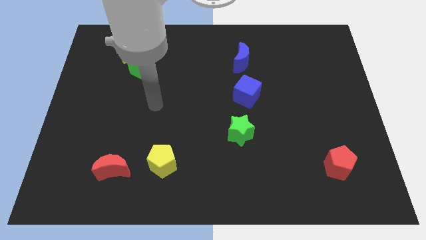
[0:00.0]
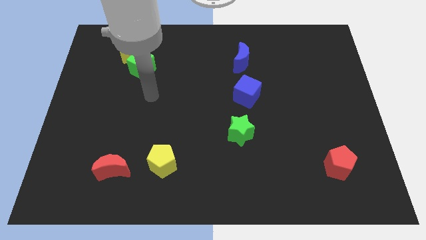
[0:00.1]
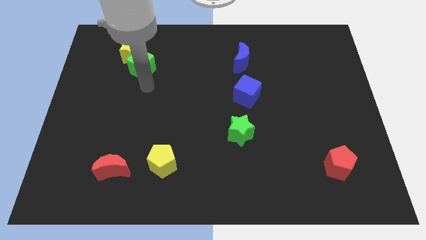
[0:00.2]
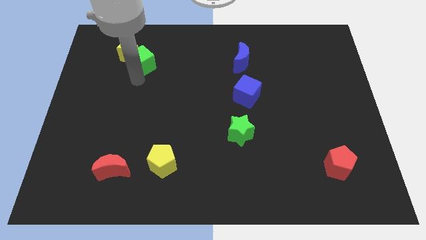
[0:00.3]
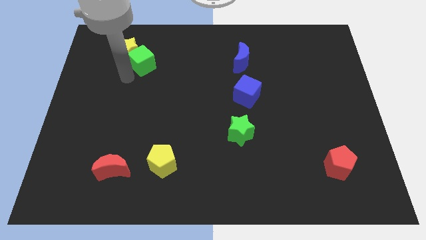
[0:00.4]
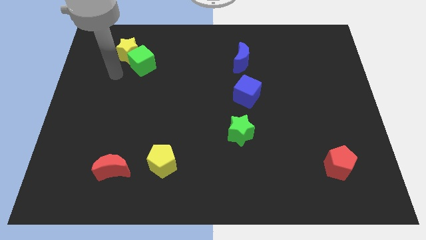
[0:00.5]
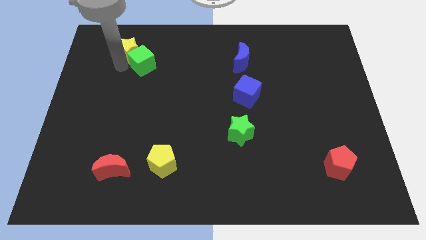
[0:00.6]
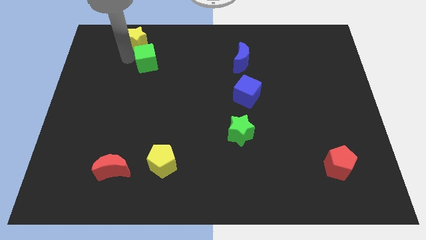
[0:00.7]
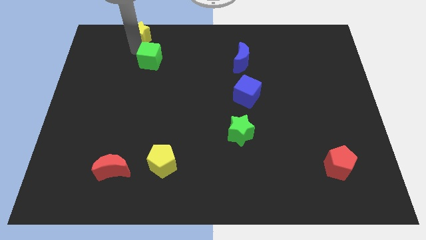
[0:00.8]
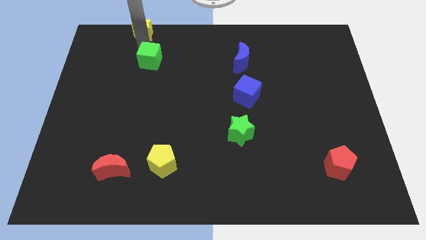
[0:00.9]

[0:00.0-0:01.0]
move the green cube away from the yellow star

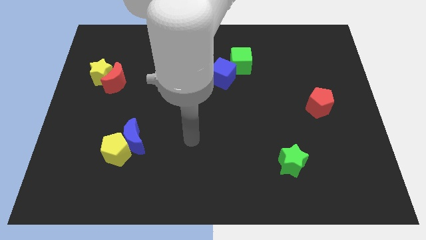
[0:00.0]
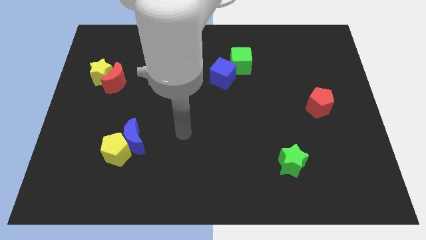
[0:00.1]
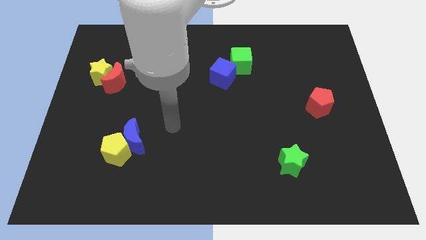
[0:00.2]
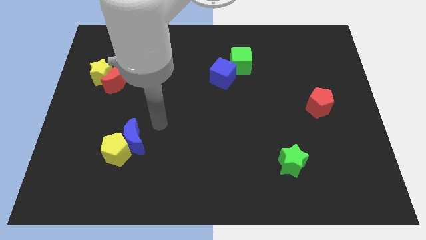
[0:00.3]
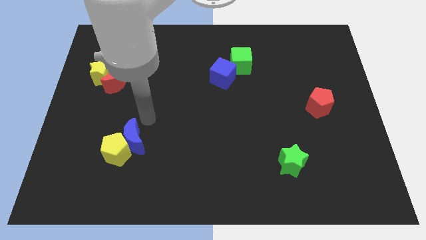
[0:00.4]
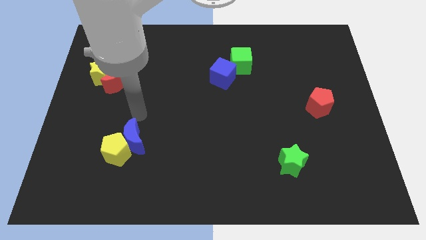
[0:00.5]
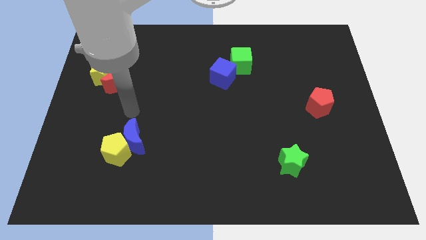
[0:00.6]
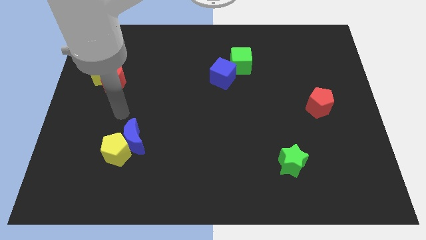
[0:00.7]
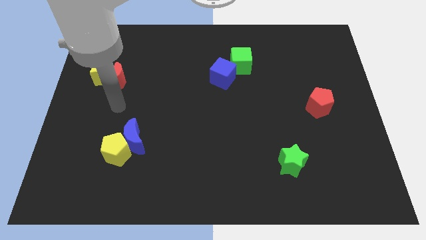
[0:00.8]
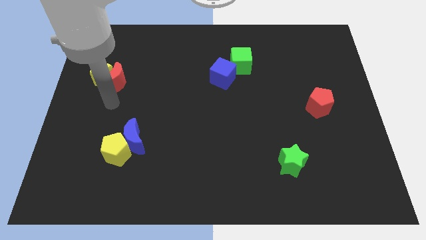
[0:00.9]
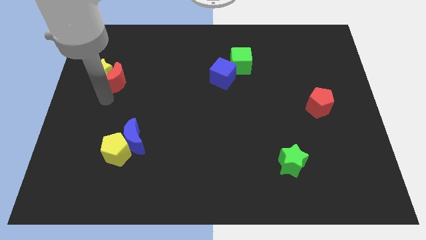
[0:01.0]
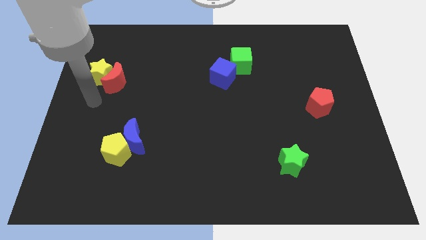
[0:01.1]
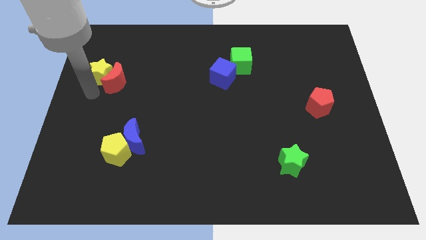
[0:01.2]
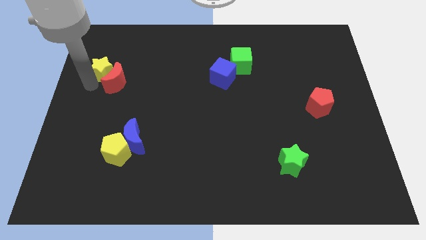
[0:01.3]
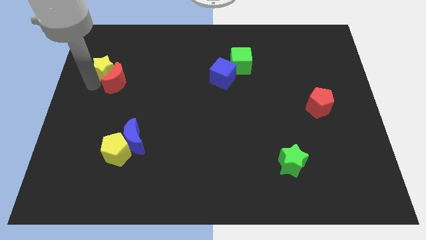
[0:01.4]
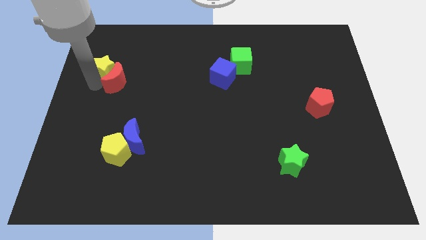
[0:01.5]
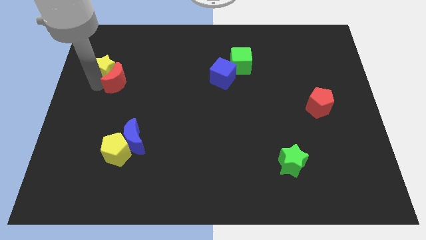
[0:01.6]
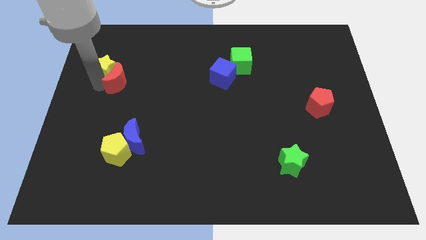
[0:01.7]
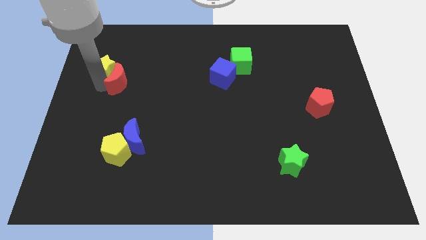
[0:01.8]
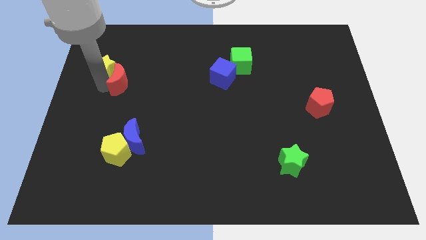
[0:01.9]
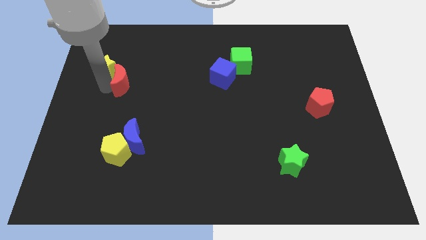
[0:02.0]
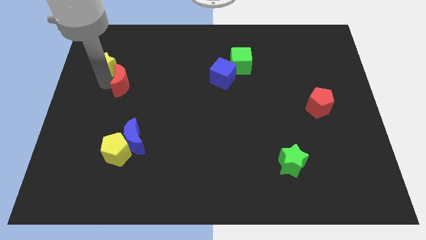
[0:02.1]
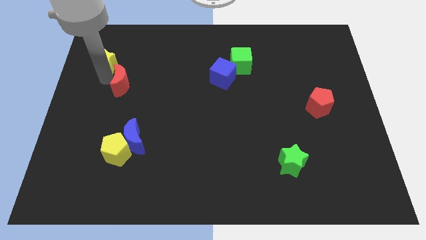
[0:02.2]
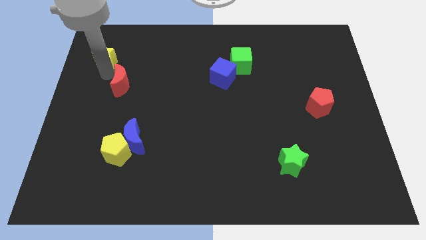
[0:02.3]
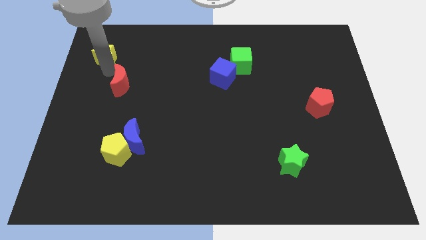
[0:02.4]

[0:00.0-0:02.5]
separate the red moon from the yellow star

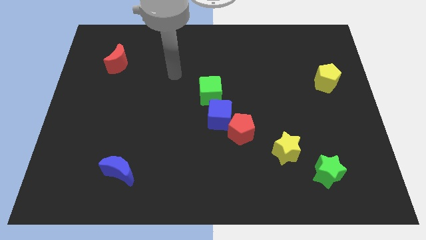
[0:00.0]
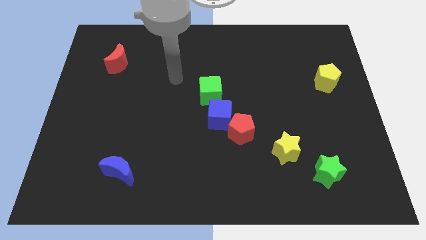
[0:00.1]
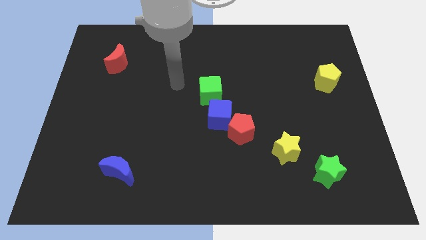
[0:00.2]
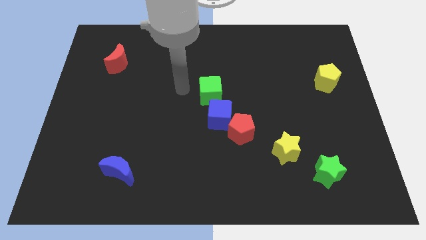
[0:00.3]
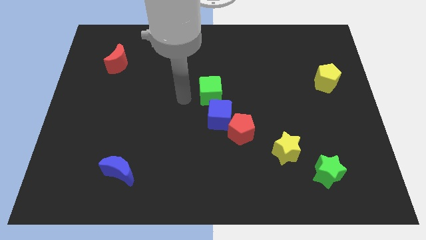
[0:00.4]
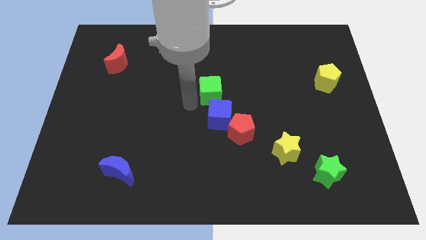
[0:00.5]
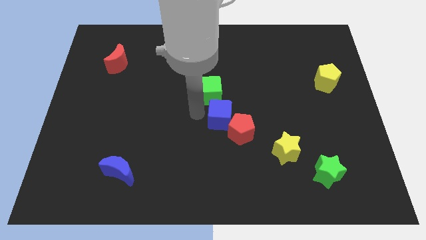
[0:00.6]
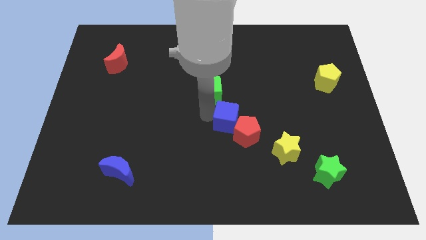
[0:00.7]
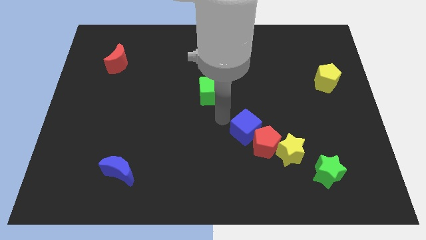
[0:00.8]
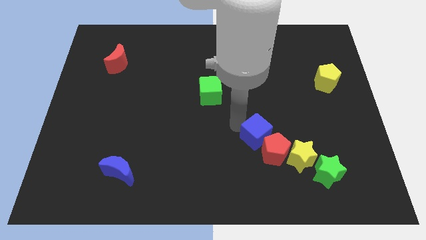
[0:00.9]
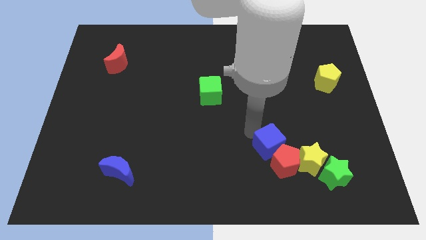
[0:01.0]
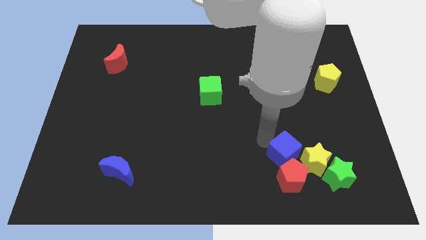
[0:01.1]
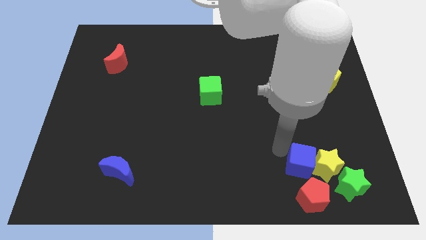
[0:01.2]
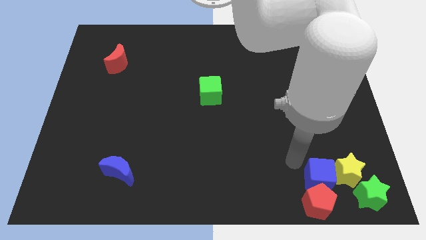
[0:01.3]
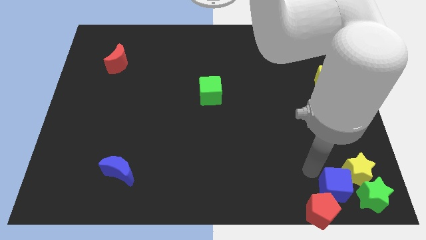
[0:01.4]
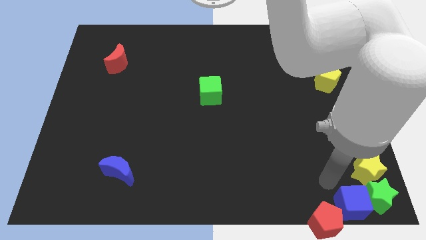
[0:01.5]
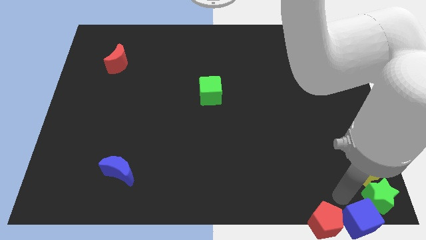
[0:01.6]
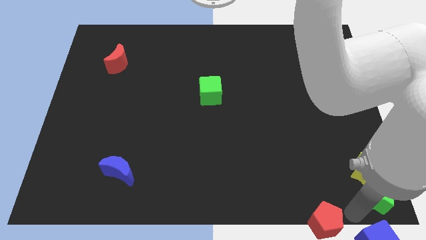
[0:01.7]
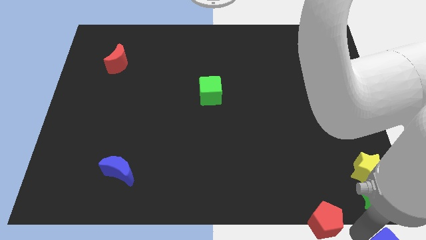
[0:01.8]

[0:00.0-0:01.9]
move the red pentagon away from the blue cube

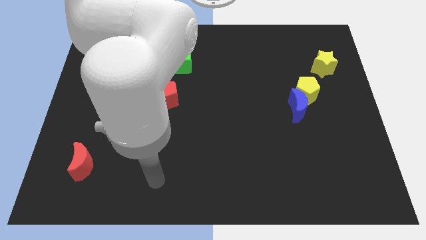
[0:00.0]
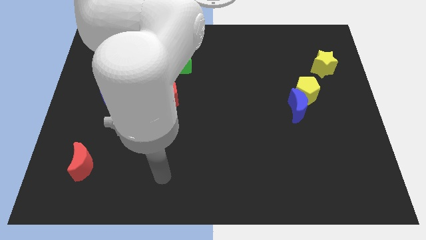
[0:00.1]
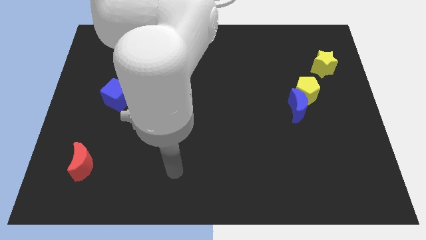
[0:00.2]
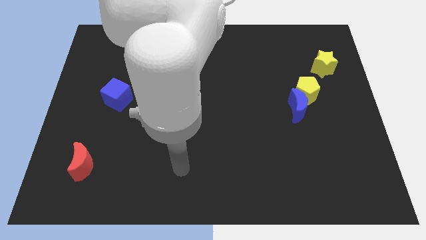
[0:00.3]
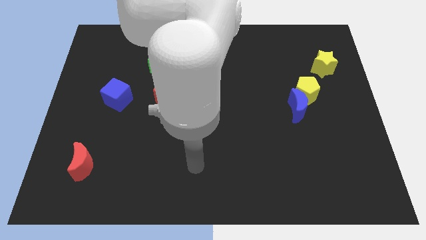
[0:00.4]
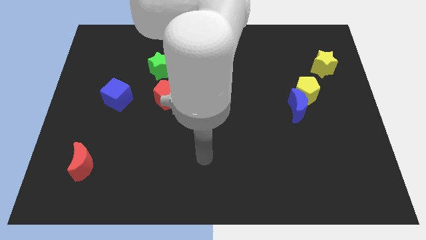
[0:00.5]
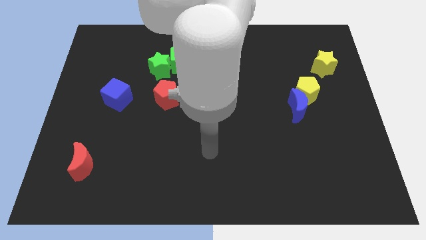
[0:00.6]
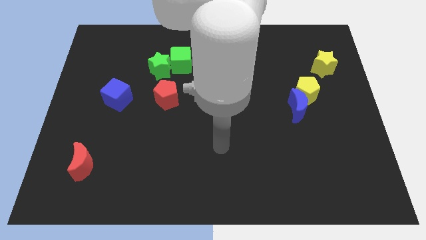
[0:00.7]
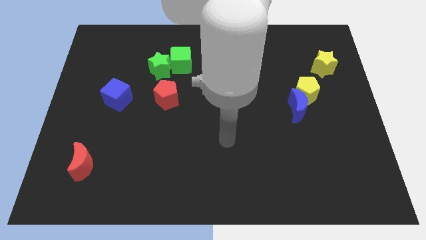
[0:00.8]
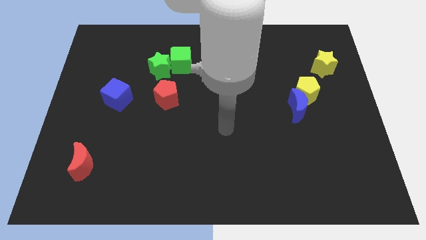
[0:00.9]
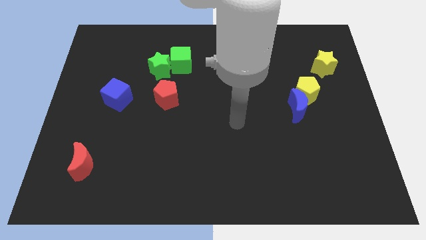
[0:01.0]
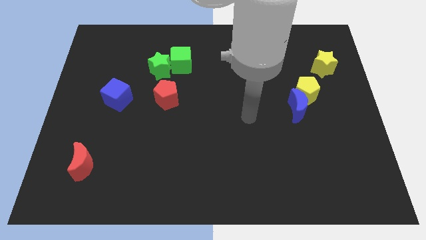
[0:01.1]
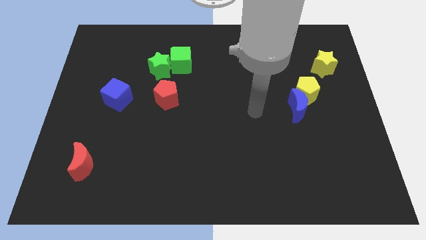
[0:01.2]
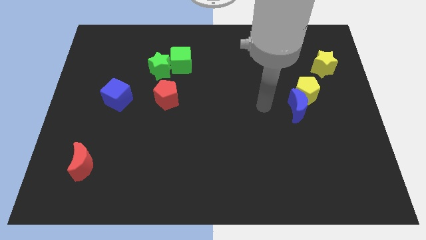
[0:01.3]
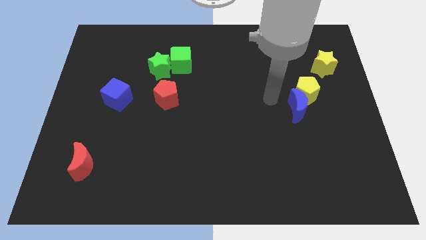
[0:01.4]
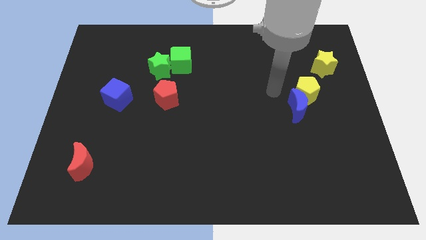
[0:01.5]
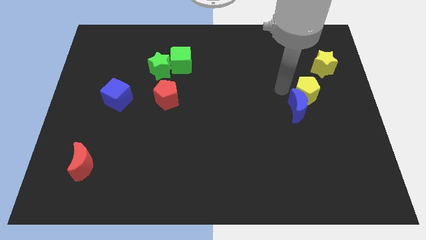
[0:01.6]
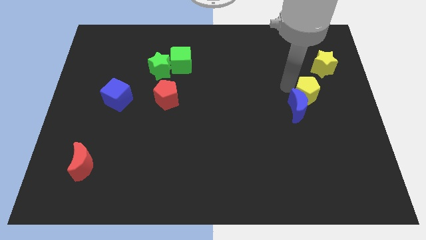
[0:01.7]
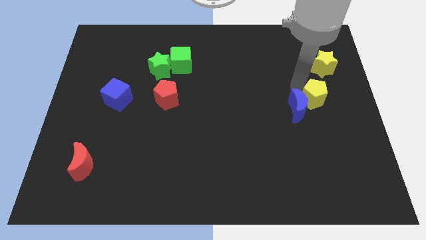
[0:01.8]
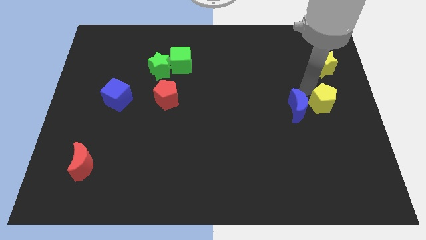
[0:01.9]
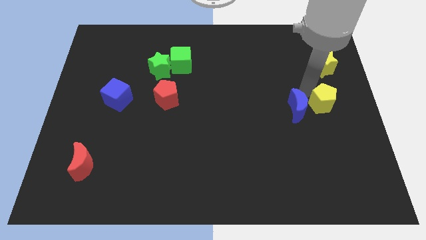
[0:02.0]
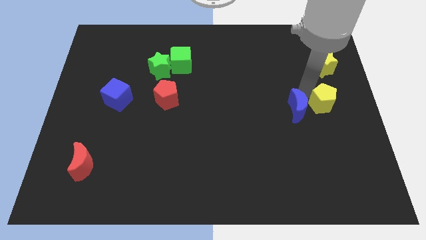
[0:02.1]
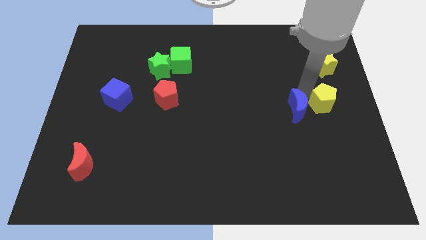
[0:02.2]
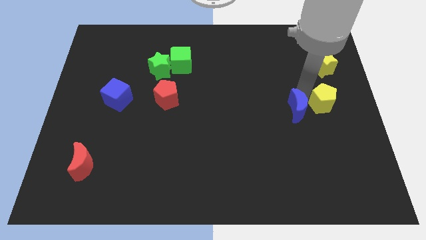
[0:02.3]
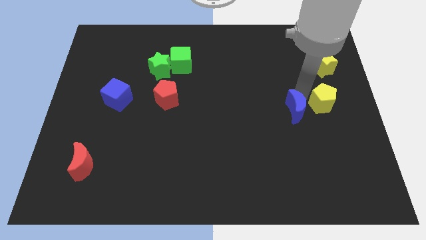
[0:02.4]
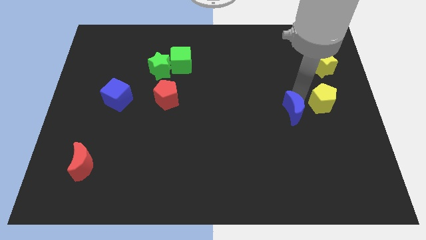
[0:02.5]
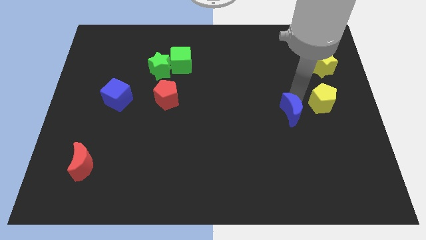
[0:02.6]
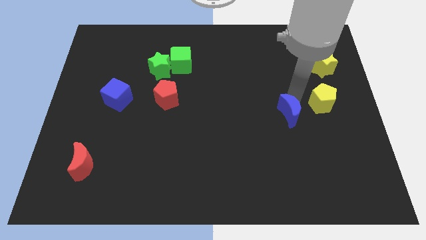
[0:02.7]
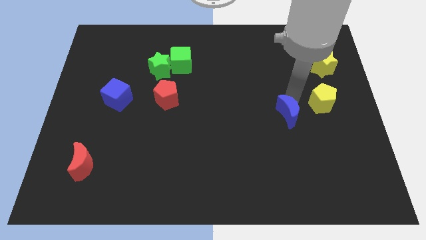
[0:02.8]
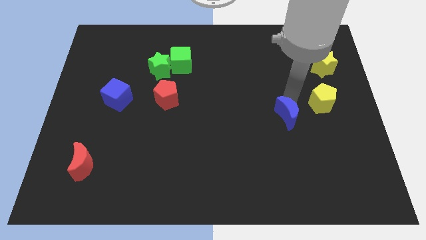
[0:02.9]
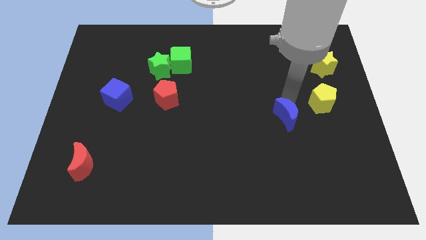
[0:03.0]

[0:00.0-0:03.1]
separate the blue moon from the yellow pentagon

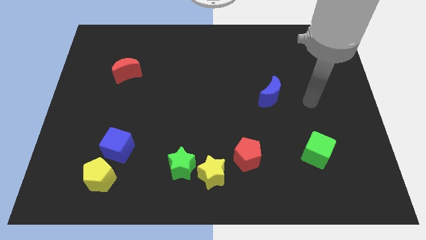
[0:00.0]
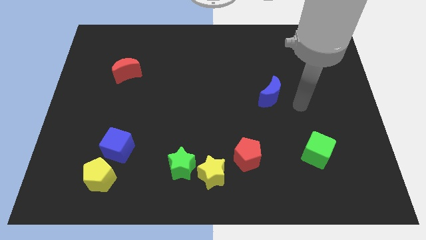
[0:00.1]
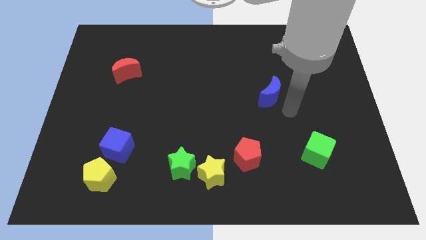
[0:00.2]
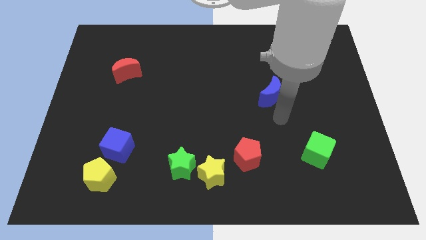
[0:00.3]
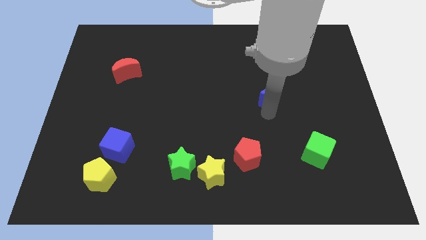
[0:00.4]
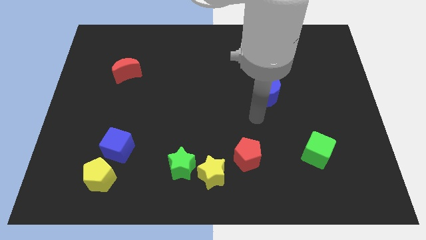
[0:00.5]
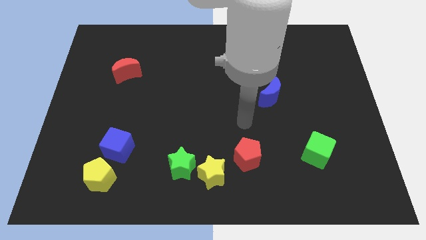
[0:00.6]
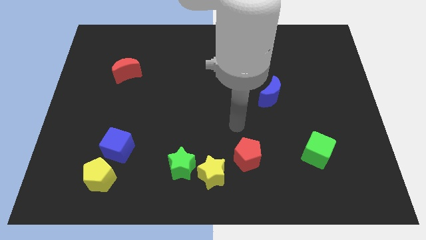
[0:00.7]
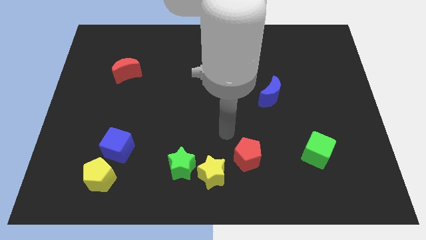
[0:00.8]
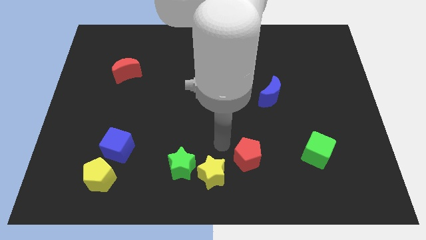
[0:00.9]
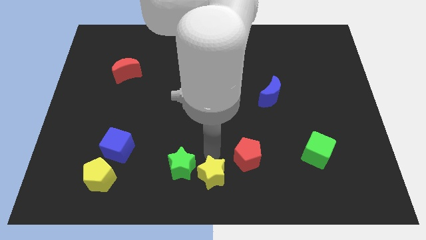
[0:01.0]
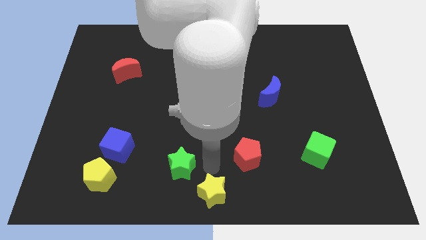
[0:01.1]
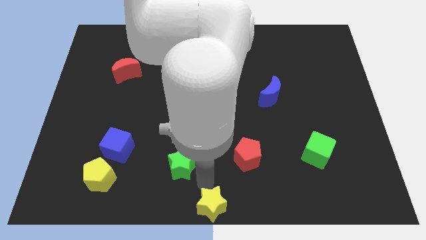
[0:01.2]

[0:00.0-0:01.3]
move the green star away from the yellow star
